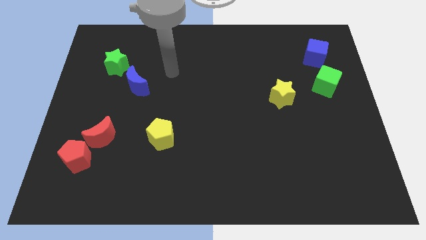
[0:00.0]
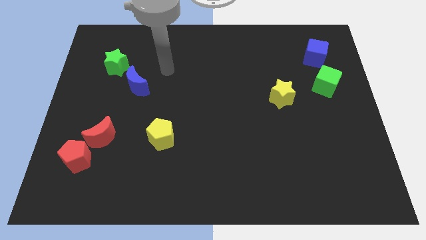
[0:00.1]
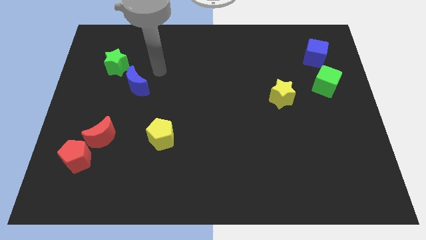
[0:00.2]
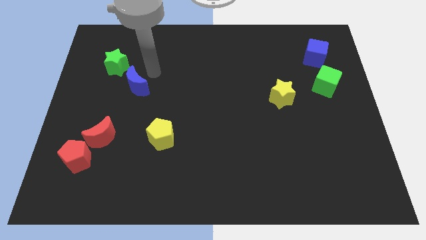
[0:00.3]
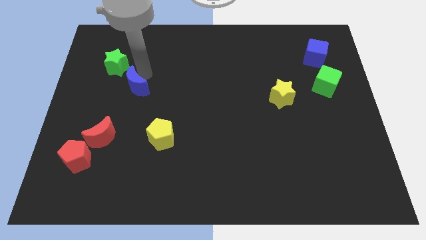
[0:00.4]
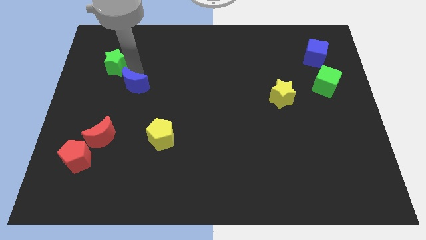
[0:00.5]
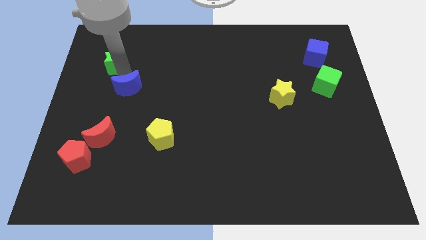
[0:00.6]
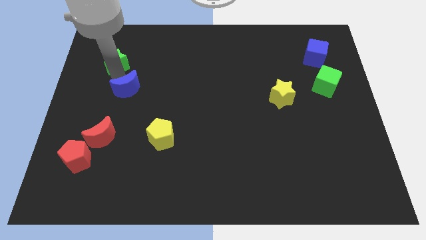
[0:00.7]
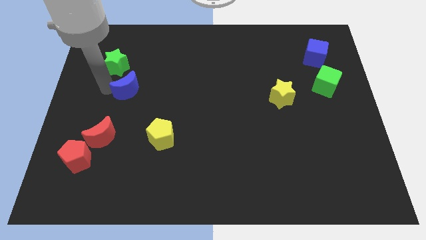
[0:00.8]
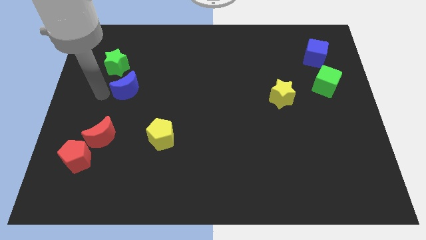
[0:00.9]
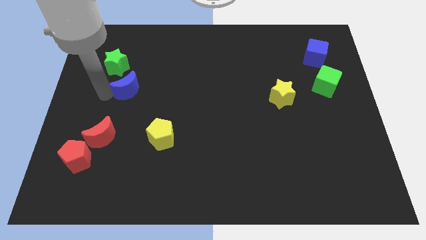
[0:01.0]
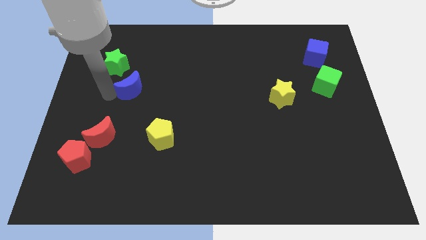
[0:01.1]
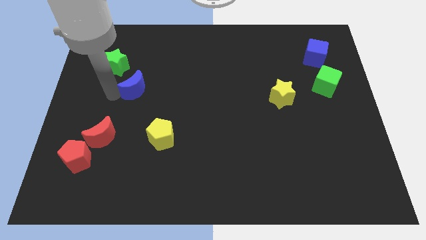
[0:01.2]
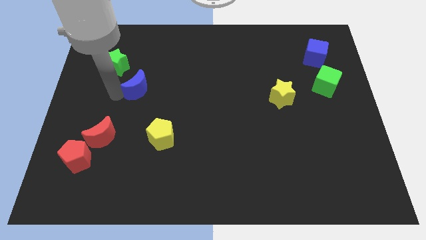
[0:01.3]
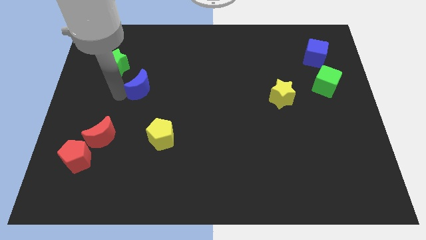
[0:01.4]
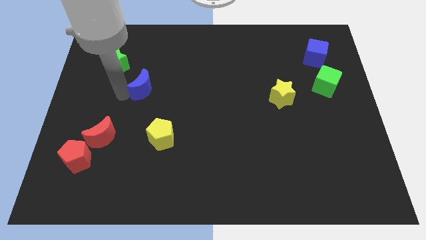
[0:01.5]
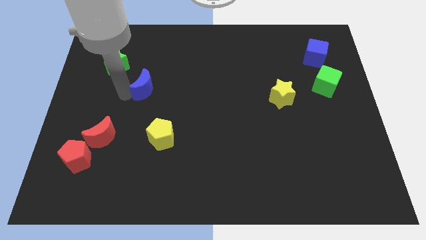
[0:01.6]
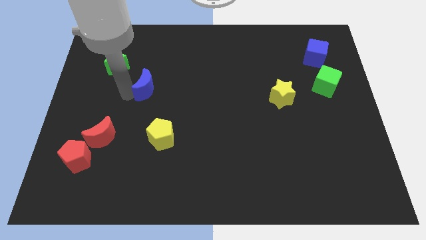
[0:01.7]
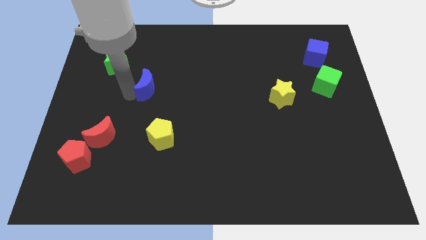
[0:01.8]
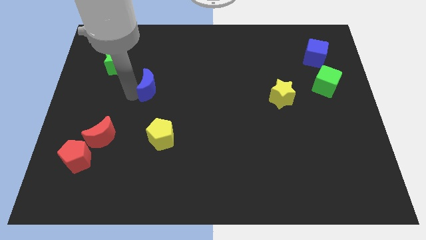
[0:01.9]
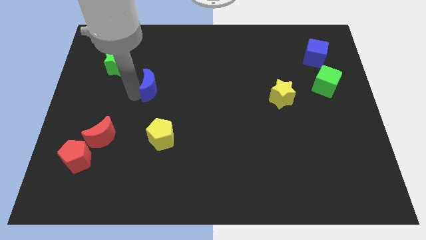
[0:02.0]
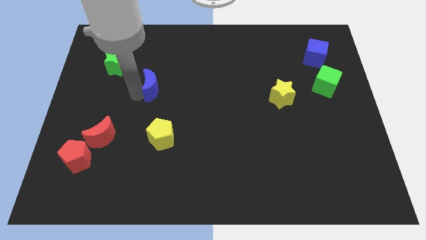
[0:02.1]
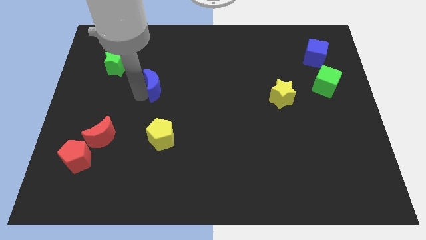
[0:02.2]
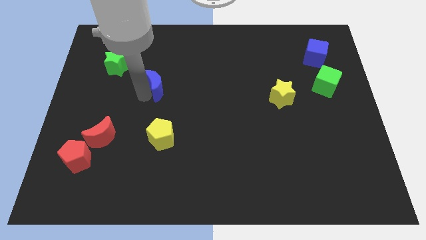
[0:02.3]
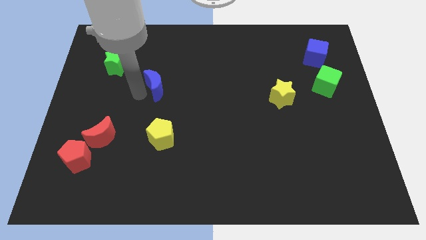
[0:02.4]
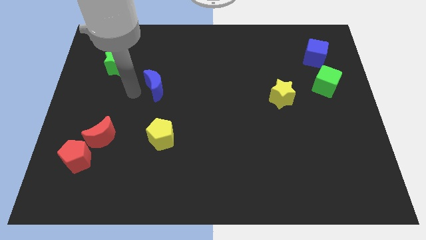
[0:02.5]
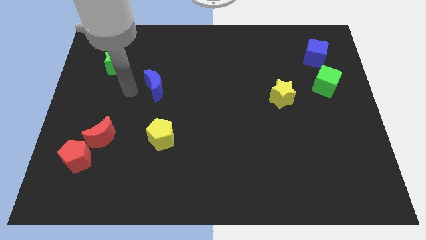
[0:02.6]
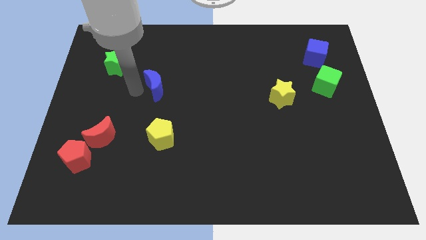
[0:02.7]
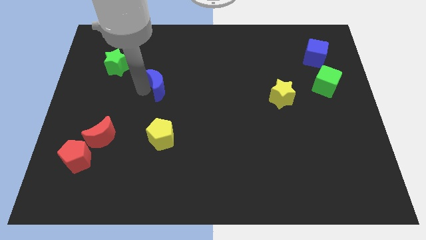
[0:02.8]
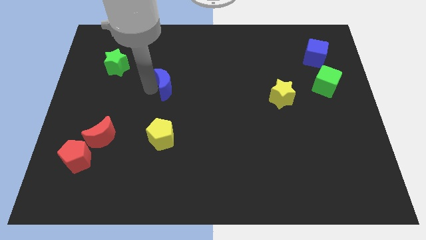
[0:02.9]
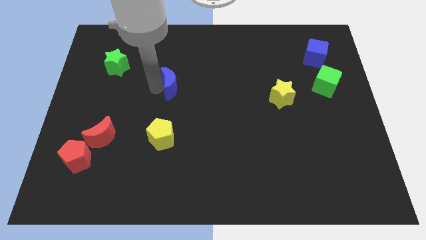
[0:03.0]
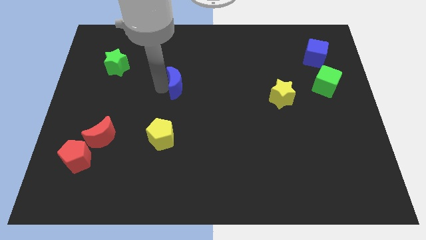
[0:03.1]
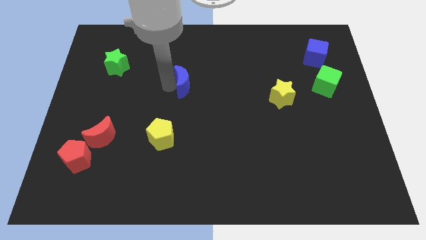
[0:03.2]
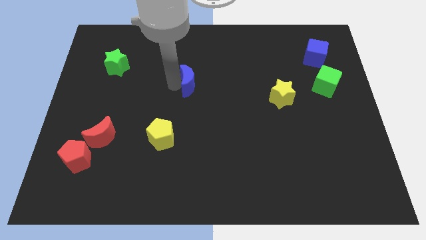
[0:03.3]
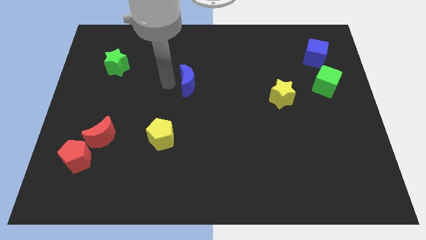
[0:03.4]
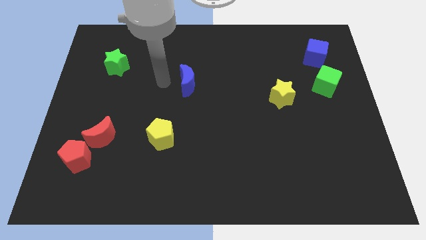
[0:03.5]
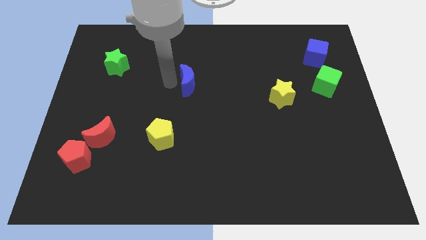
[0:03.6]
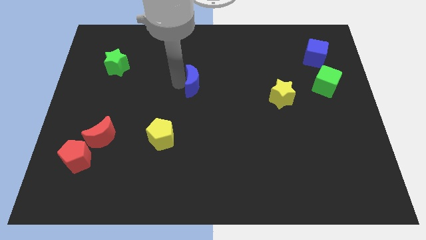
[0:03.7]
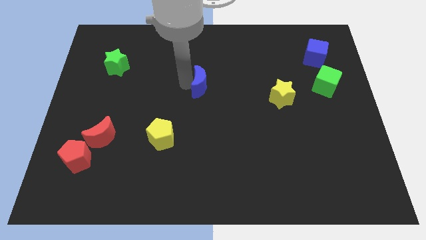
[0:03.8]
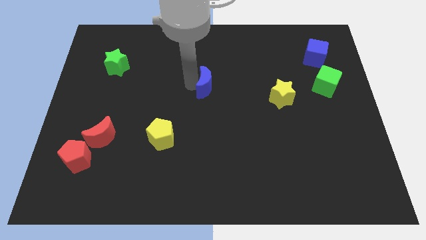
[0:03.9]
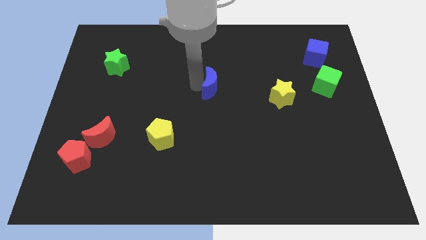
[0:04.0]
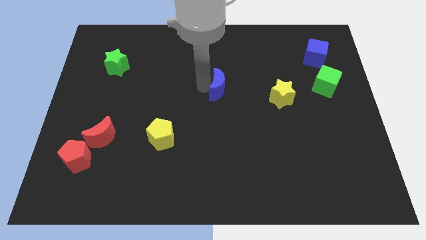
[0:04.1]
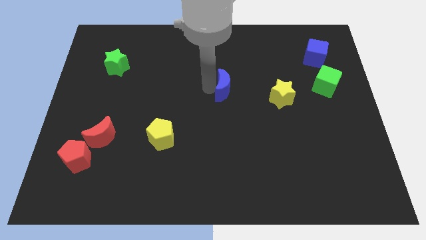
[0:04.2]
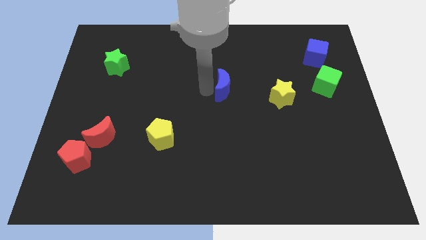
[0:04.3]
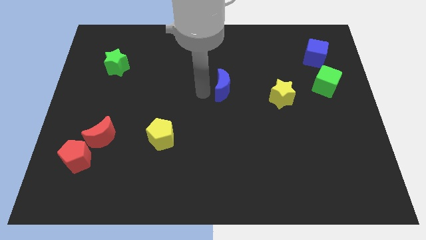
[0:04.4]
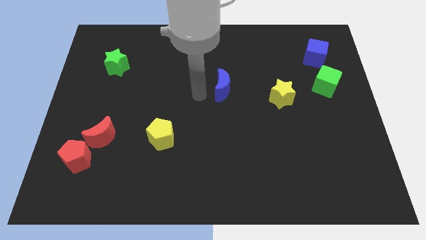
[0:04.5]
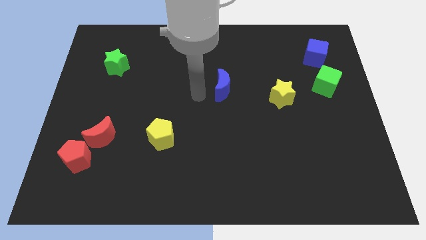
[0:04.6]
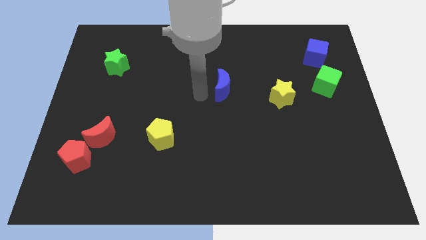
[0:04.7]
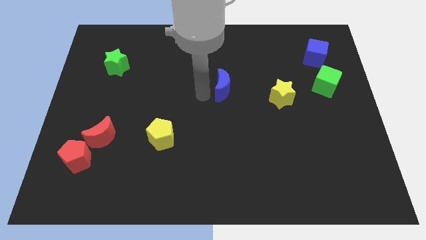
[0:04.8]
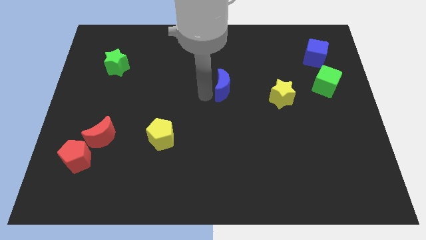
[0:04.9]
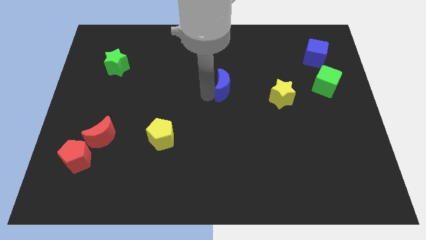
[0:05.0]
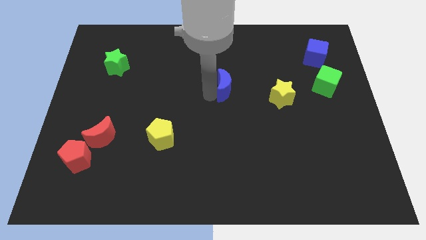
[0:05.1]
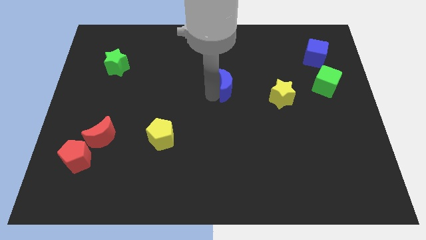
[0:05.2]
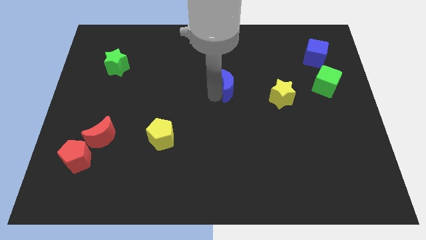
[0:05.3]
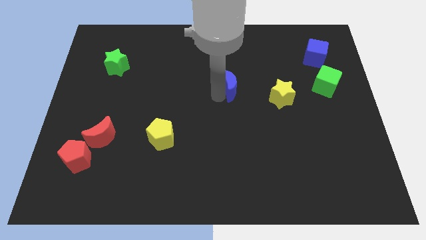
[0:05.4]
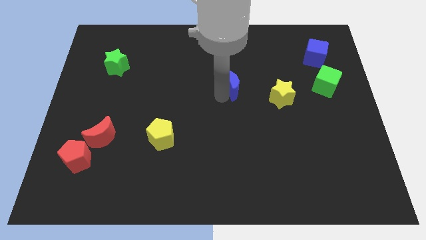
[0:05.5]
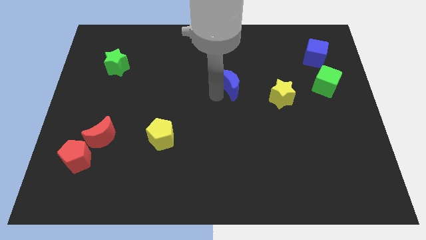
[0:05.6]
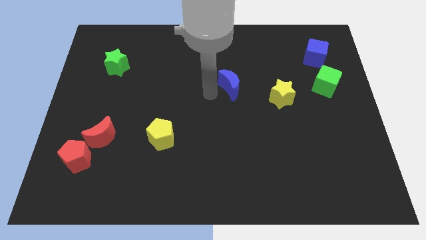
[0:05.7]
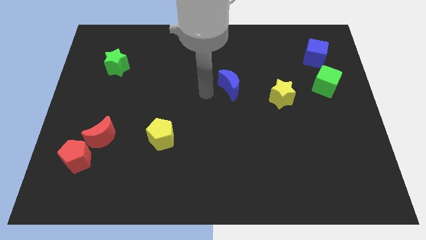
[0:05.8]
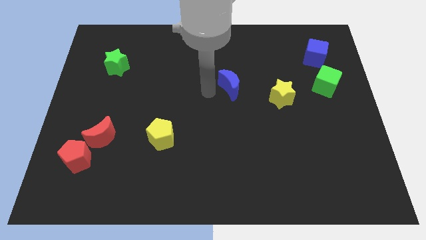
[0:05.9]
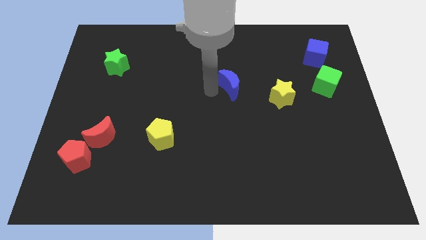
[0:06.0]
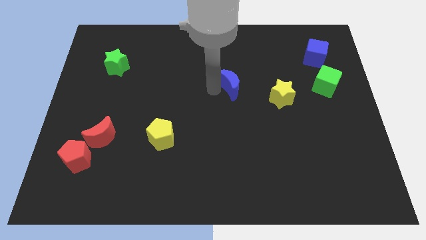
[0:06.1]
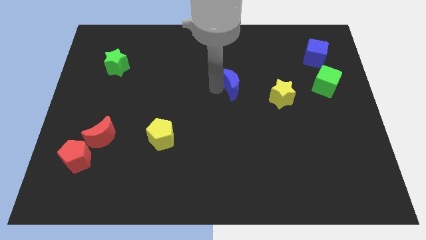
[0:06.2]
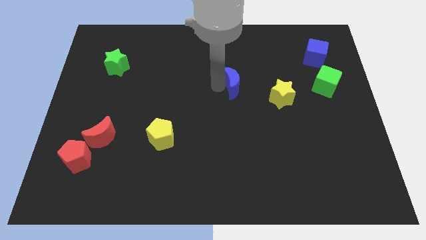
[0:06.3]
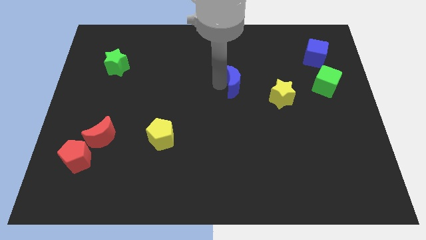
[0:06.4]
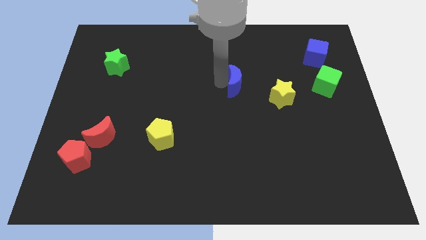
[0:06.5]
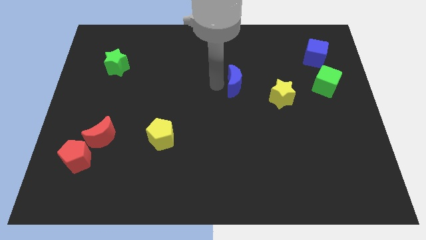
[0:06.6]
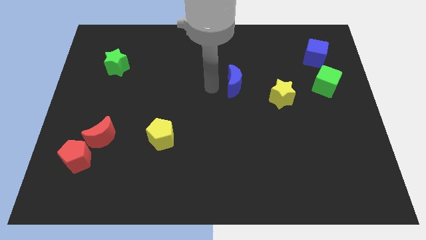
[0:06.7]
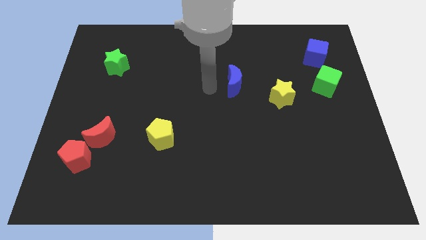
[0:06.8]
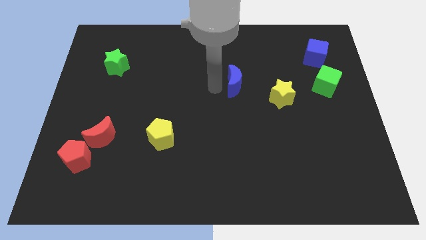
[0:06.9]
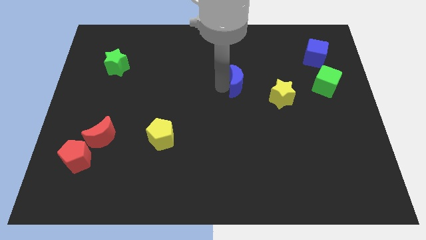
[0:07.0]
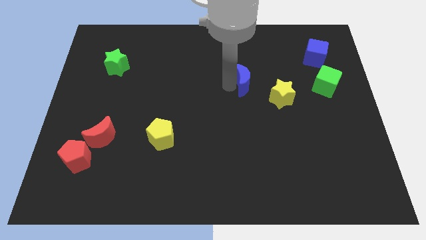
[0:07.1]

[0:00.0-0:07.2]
push the blue moon to the top left of the yellow star
